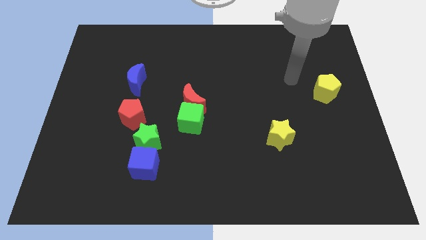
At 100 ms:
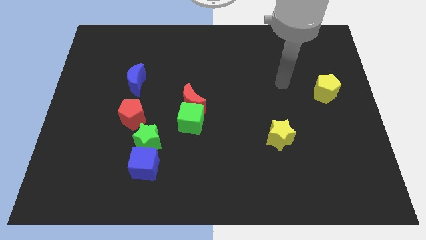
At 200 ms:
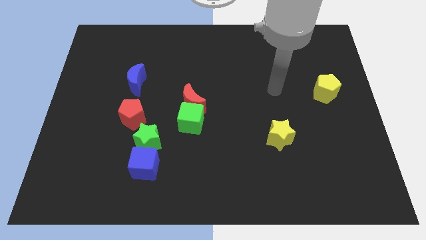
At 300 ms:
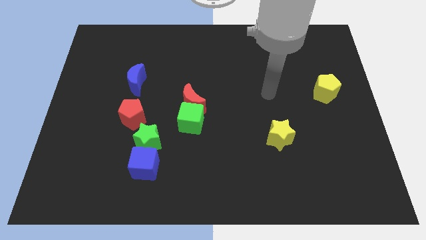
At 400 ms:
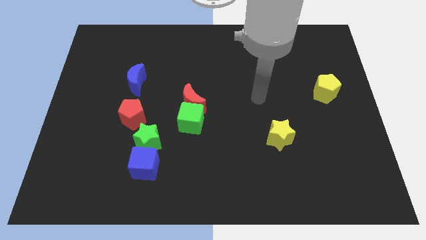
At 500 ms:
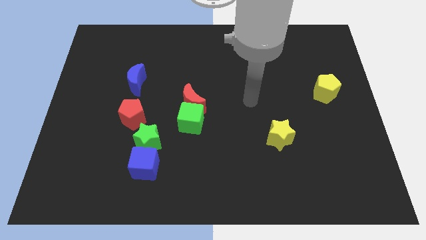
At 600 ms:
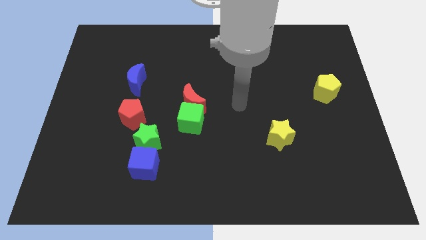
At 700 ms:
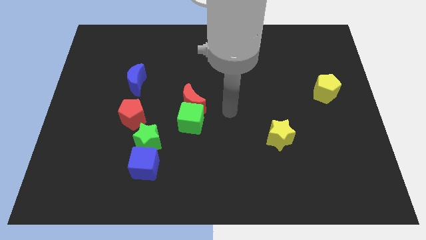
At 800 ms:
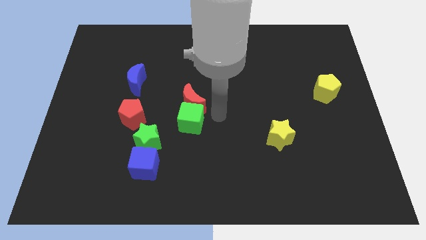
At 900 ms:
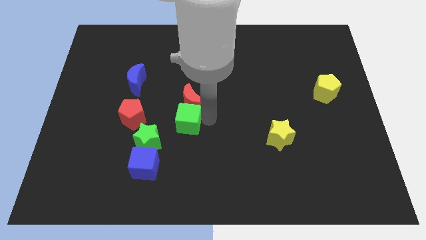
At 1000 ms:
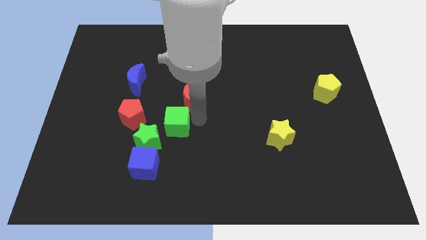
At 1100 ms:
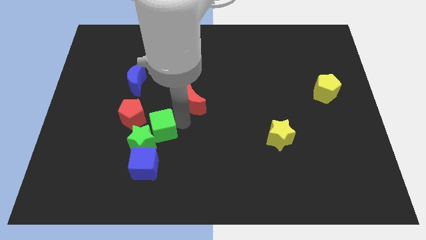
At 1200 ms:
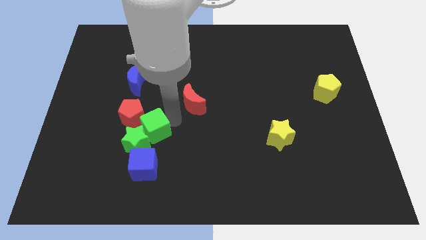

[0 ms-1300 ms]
pull the red moon apart from the green cube

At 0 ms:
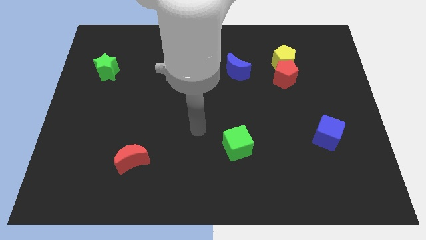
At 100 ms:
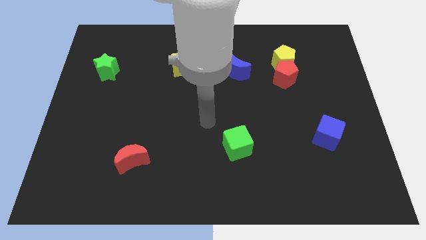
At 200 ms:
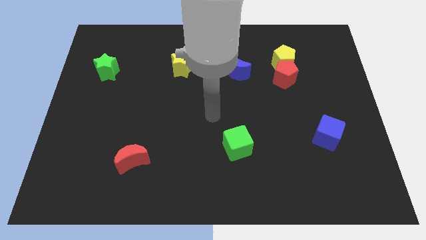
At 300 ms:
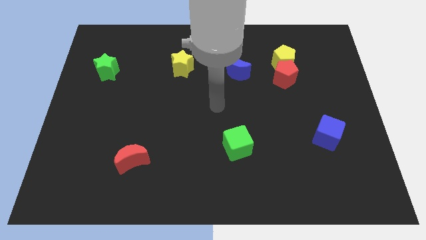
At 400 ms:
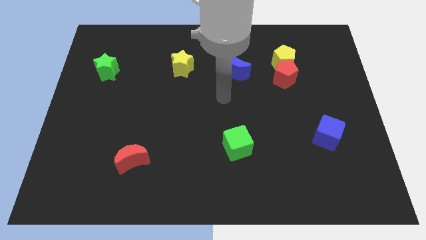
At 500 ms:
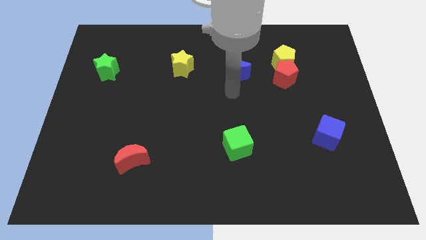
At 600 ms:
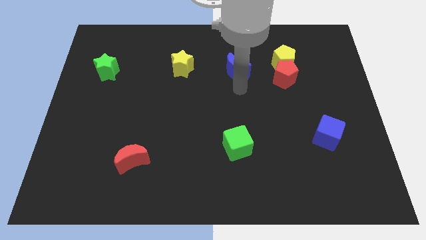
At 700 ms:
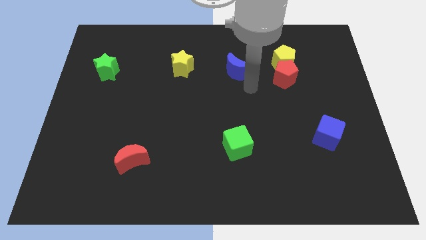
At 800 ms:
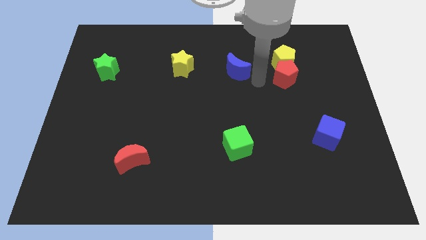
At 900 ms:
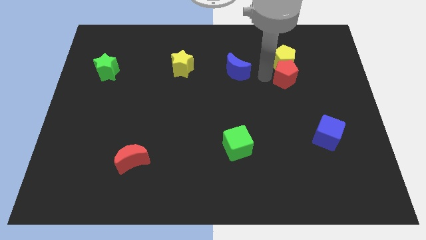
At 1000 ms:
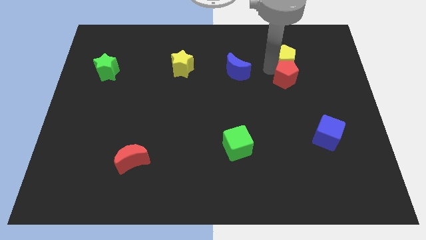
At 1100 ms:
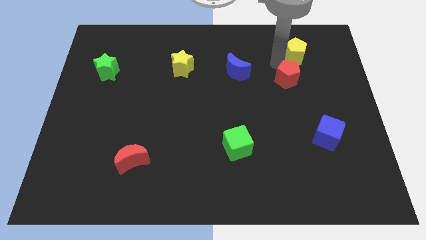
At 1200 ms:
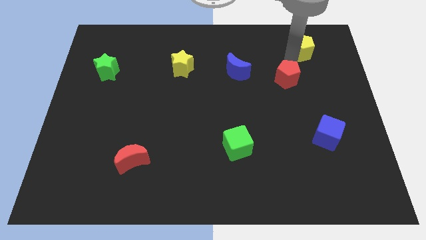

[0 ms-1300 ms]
move the red pentagon away from the yellow pentagon

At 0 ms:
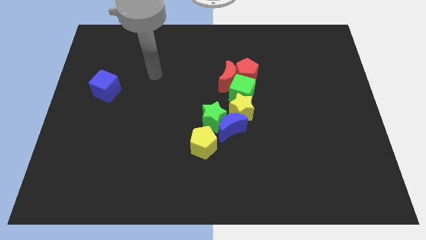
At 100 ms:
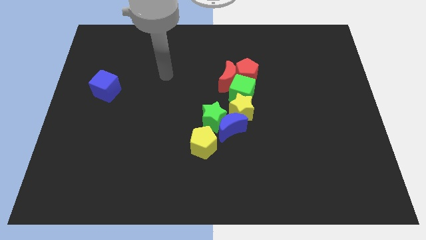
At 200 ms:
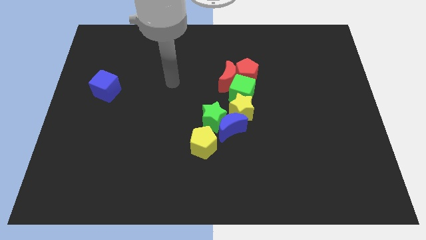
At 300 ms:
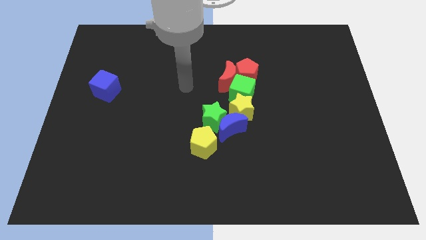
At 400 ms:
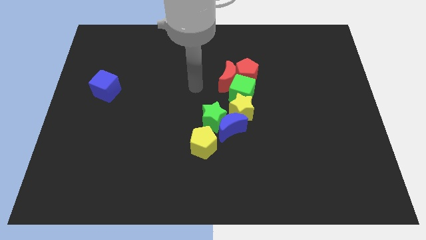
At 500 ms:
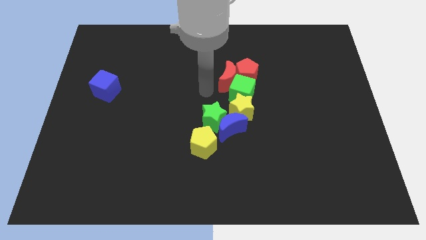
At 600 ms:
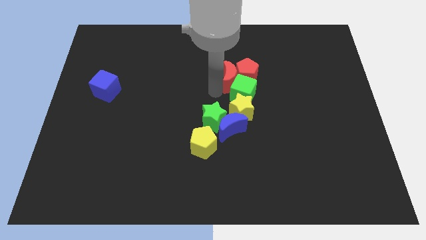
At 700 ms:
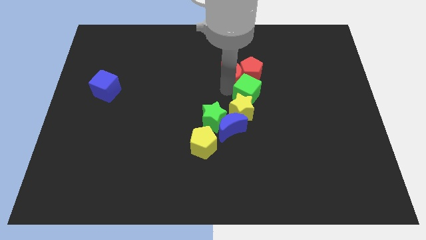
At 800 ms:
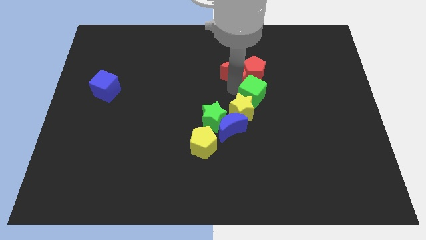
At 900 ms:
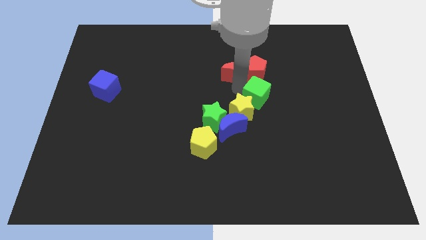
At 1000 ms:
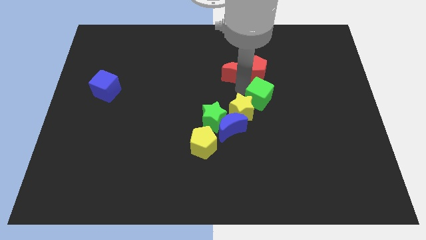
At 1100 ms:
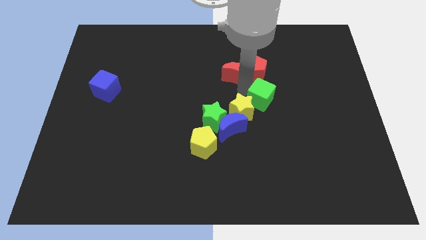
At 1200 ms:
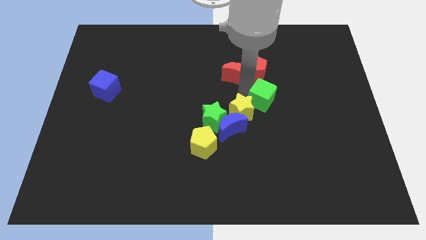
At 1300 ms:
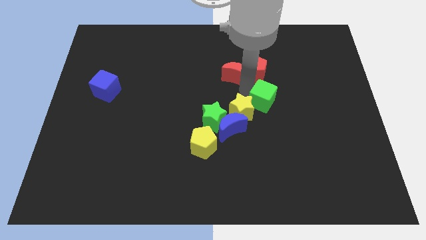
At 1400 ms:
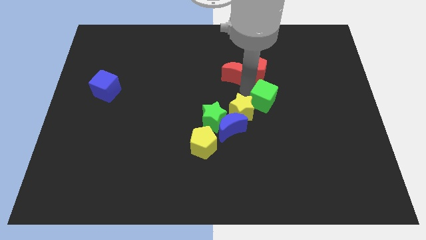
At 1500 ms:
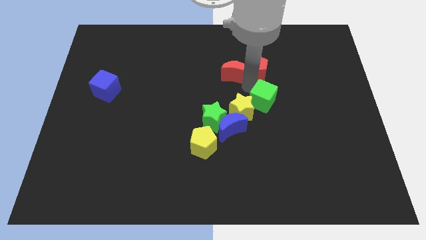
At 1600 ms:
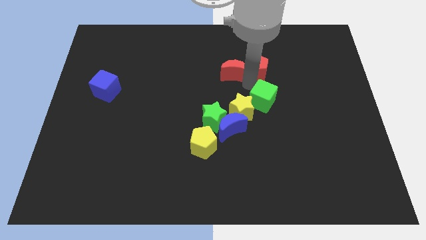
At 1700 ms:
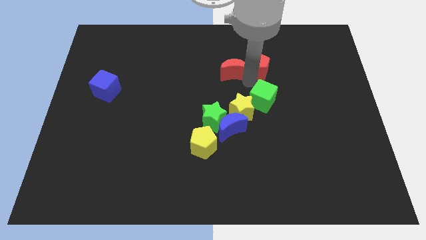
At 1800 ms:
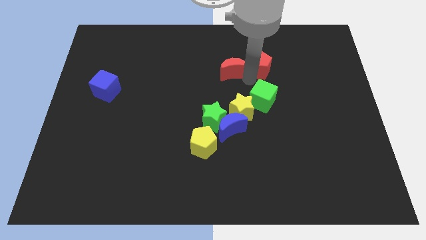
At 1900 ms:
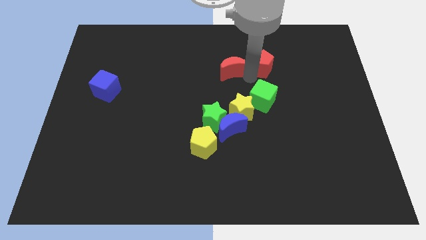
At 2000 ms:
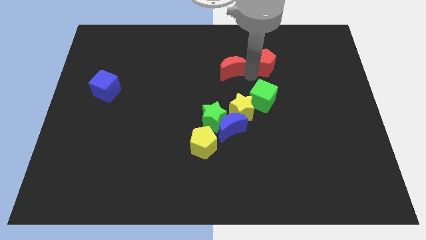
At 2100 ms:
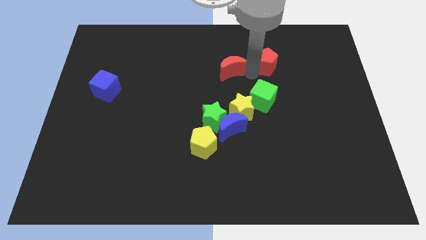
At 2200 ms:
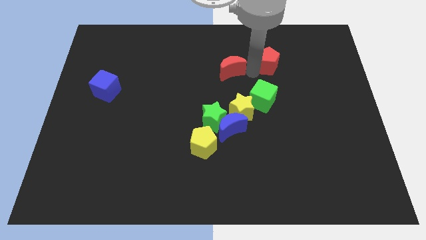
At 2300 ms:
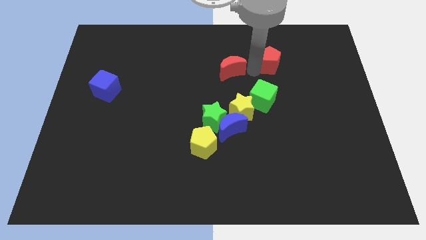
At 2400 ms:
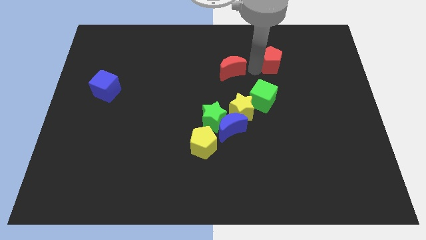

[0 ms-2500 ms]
move the red pentagon away from the red moon and green cube

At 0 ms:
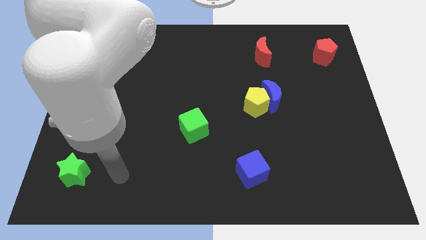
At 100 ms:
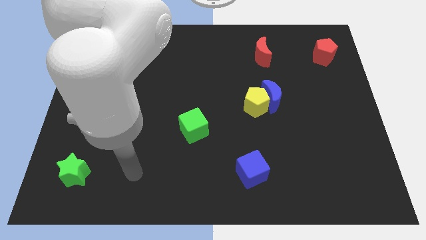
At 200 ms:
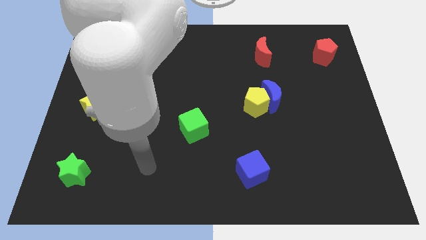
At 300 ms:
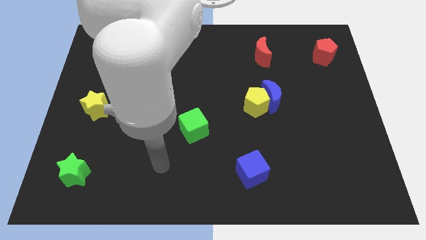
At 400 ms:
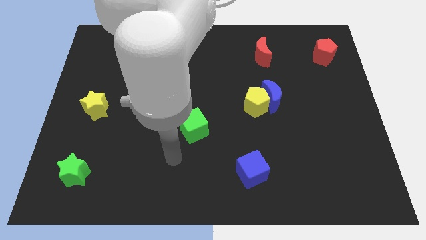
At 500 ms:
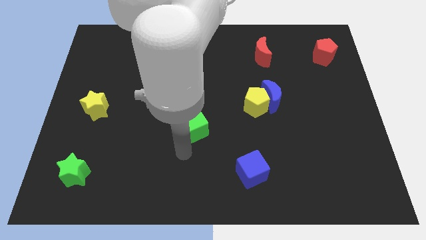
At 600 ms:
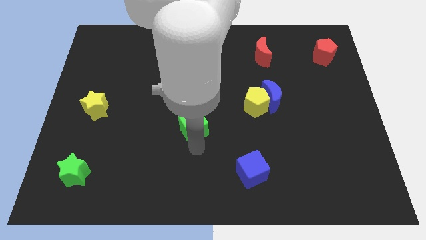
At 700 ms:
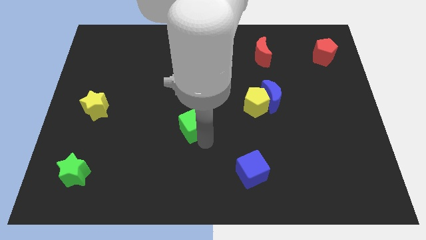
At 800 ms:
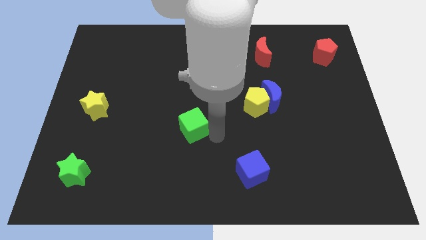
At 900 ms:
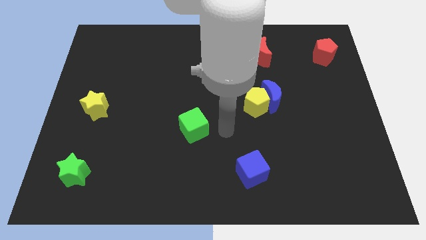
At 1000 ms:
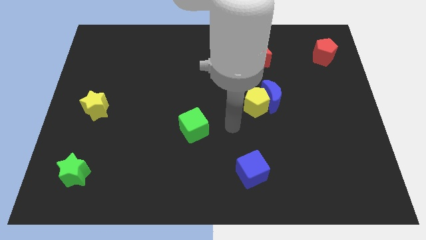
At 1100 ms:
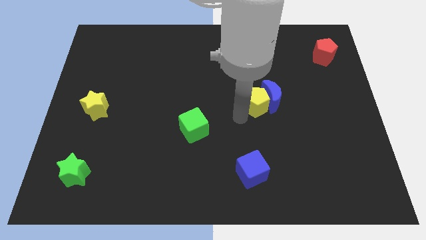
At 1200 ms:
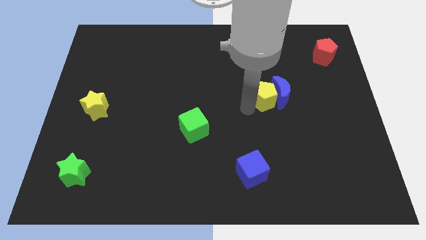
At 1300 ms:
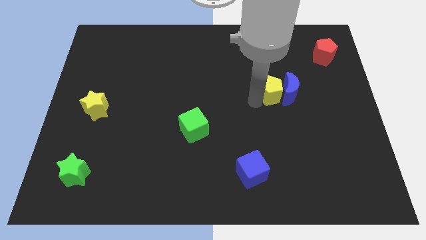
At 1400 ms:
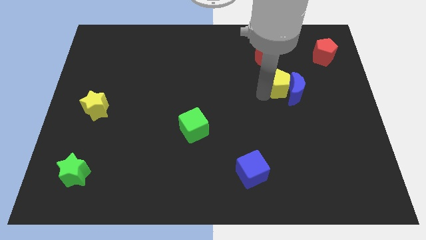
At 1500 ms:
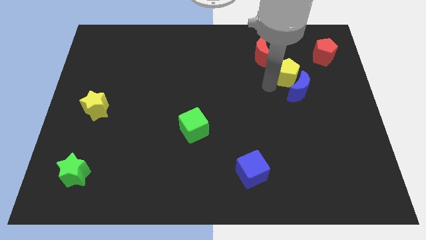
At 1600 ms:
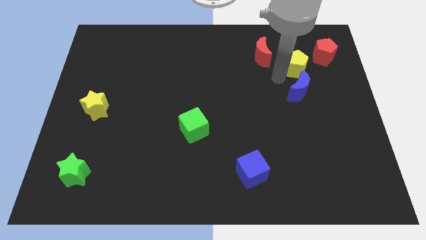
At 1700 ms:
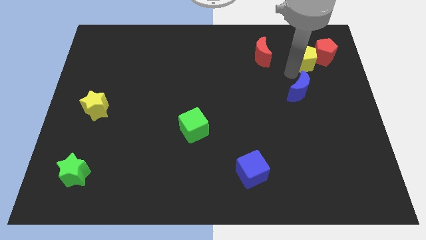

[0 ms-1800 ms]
pull the blue moon apart from the yellow pentagon

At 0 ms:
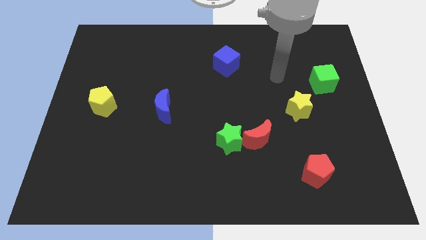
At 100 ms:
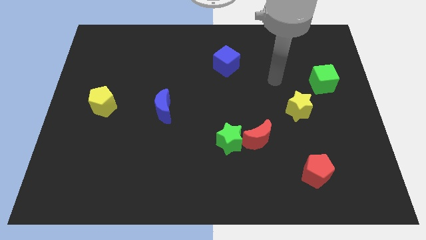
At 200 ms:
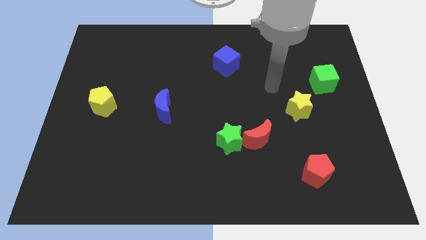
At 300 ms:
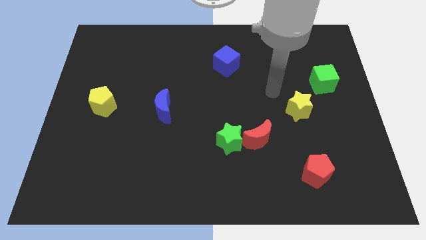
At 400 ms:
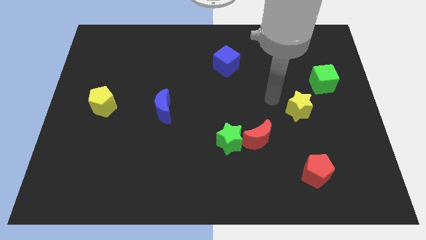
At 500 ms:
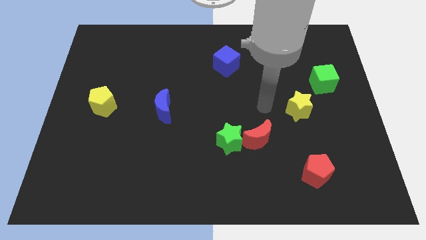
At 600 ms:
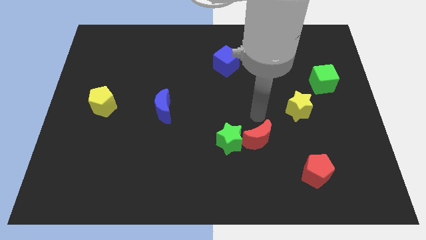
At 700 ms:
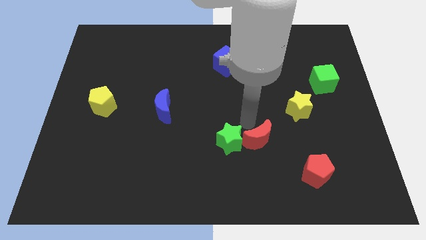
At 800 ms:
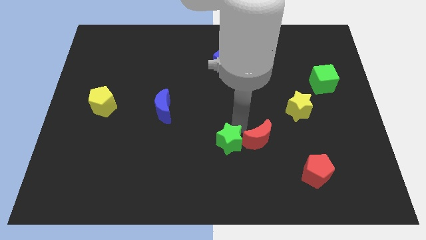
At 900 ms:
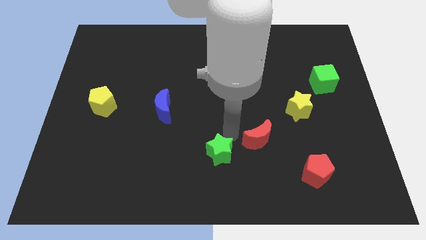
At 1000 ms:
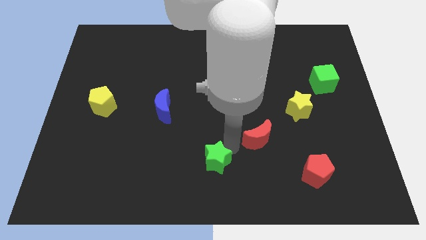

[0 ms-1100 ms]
pull the red moon apart from the green star

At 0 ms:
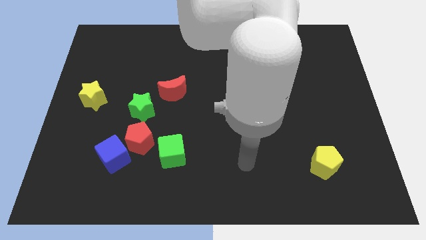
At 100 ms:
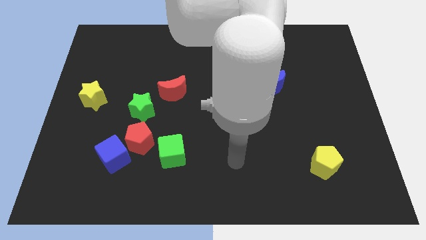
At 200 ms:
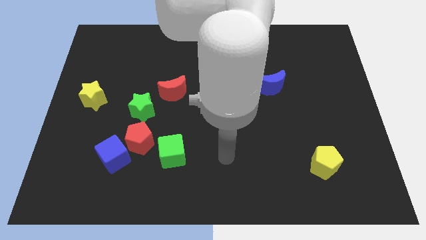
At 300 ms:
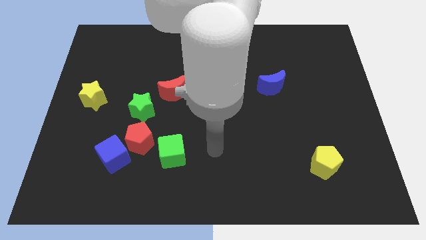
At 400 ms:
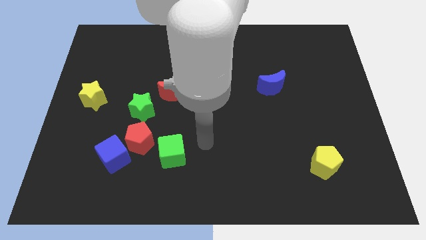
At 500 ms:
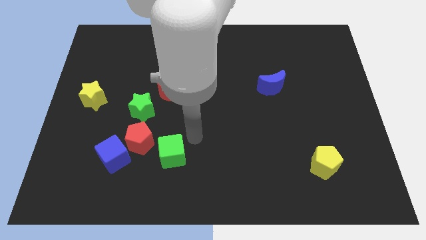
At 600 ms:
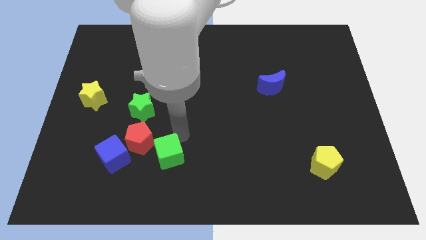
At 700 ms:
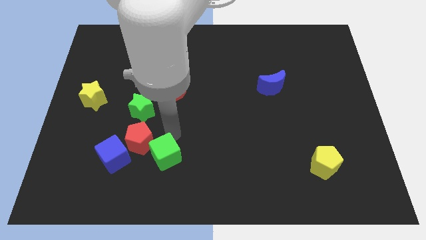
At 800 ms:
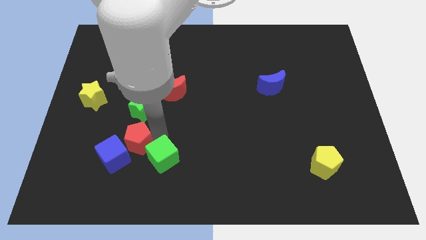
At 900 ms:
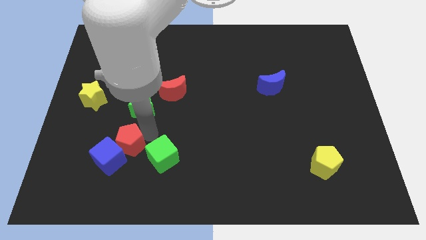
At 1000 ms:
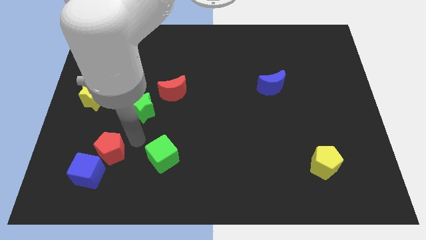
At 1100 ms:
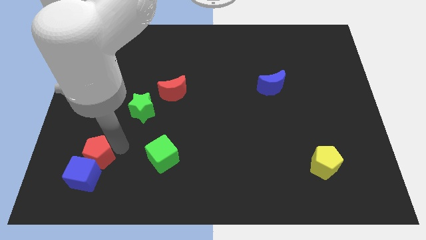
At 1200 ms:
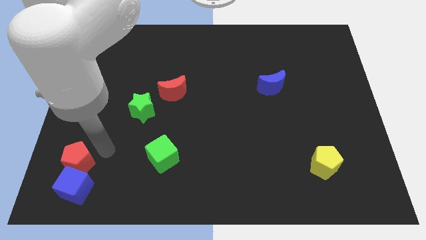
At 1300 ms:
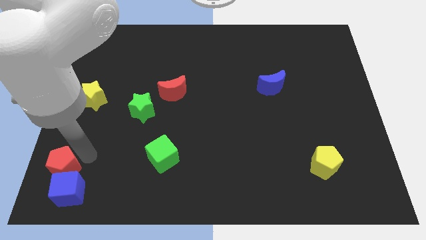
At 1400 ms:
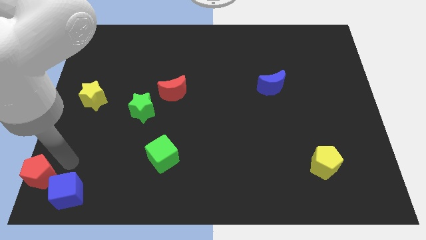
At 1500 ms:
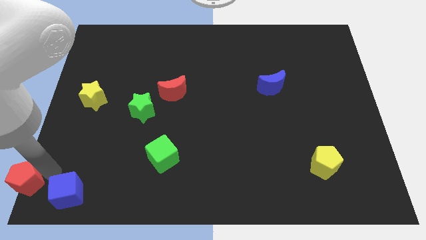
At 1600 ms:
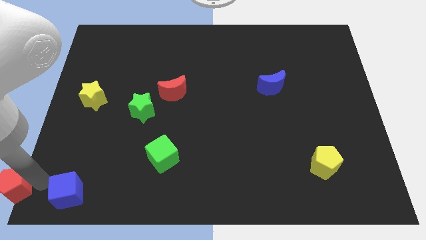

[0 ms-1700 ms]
move the blue cube away from the red pentagon
